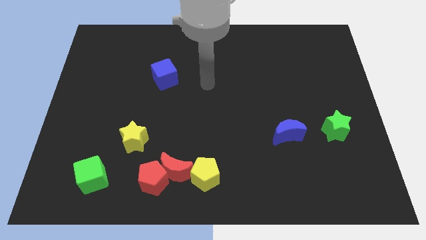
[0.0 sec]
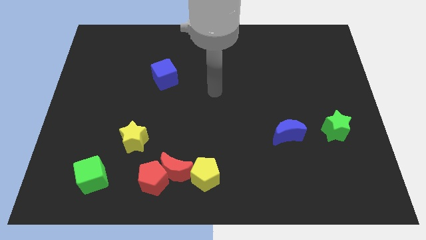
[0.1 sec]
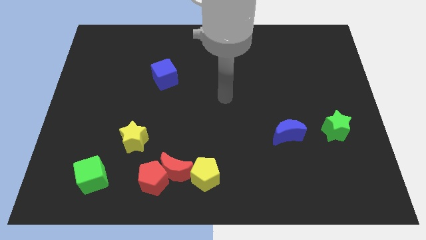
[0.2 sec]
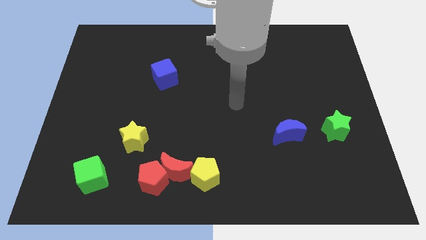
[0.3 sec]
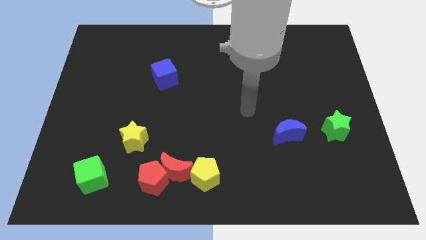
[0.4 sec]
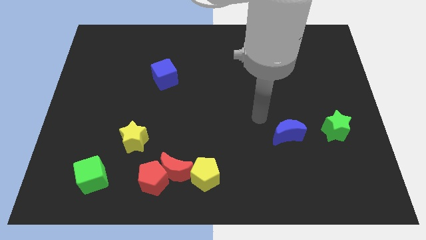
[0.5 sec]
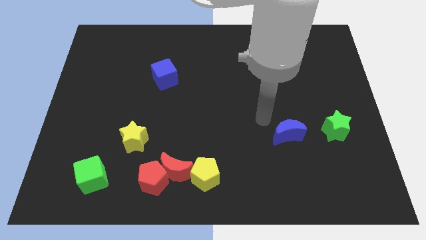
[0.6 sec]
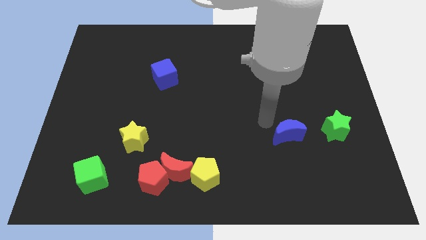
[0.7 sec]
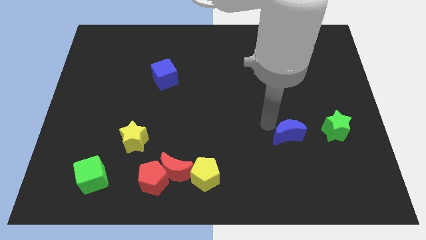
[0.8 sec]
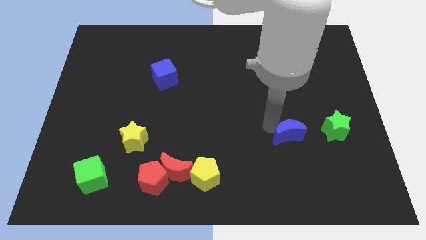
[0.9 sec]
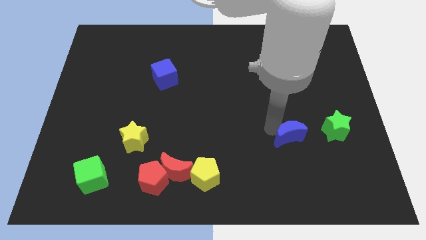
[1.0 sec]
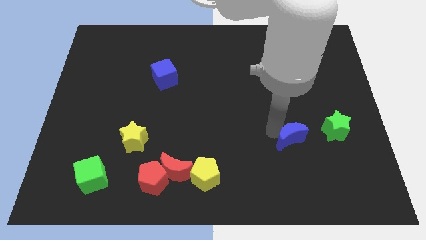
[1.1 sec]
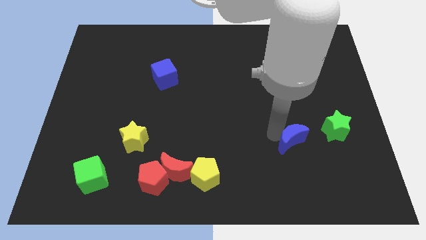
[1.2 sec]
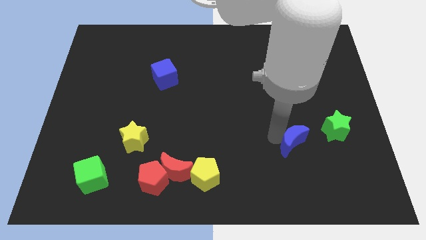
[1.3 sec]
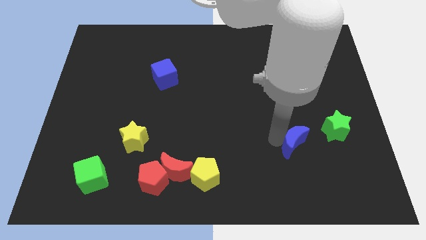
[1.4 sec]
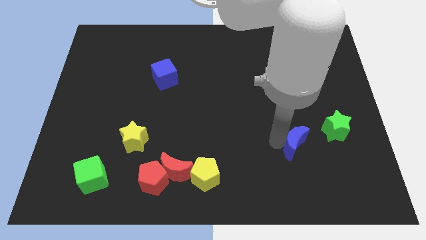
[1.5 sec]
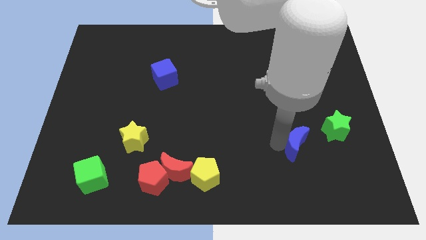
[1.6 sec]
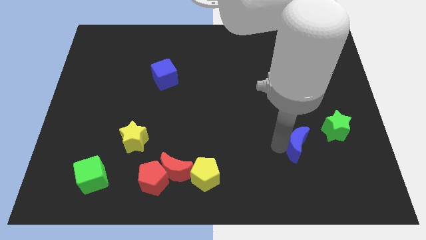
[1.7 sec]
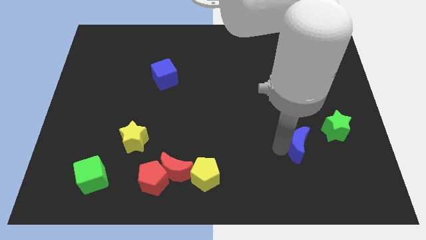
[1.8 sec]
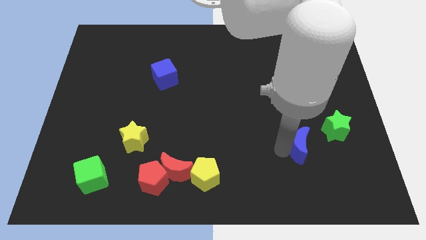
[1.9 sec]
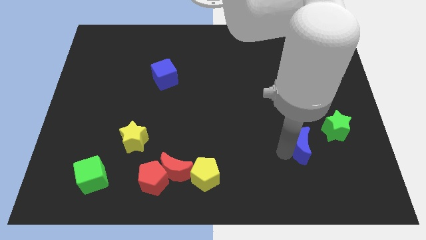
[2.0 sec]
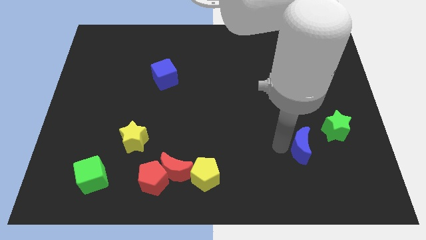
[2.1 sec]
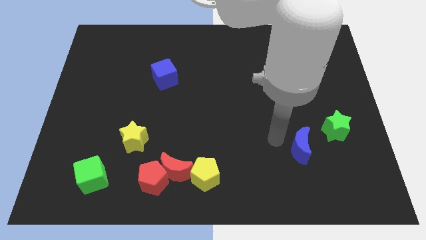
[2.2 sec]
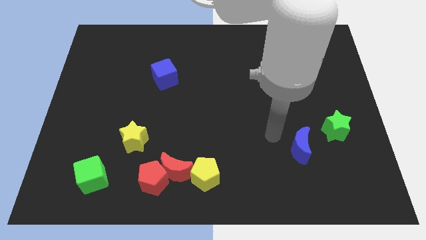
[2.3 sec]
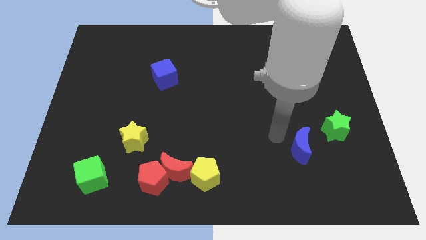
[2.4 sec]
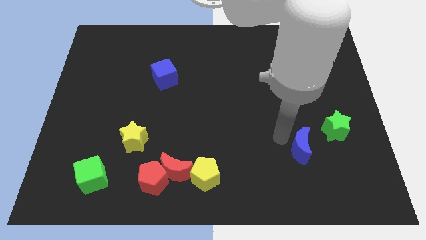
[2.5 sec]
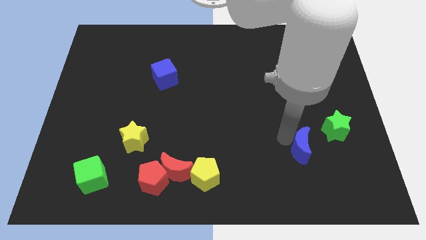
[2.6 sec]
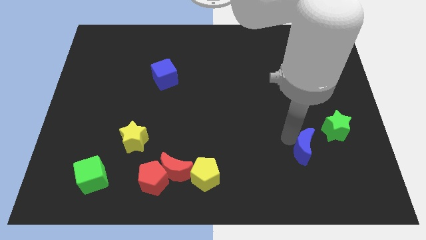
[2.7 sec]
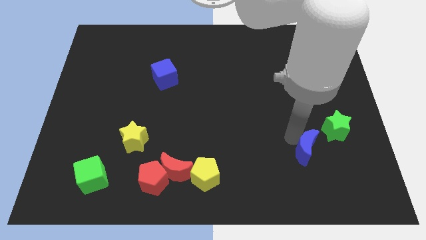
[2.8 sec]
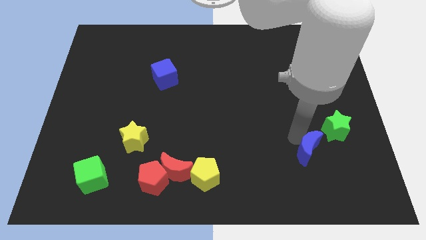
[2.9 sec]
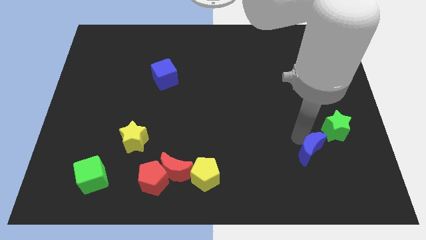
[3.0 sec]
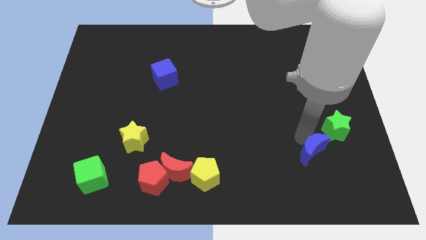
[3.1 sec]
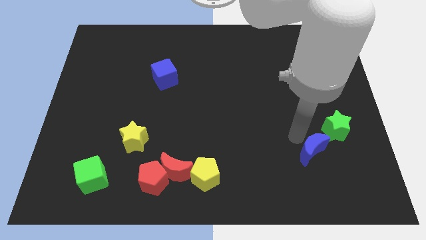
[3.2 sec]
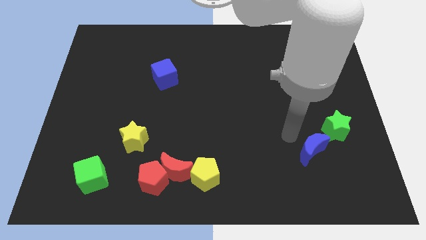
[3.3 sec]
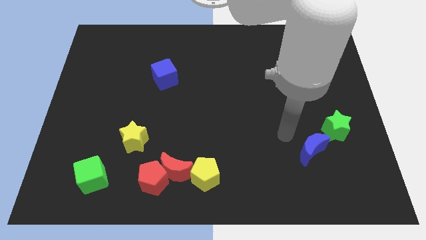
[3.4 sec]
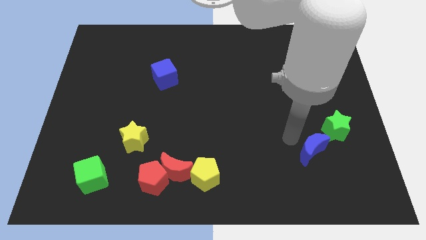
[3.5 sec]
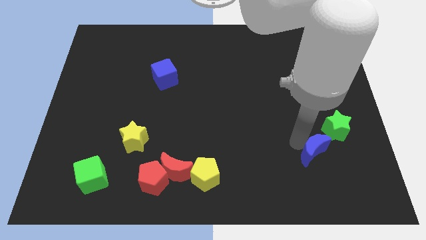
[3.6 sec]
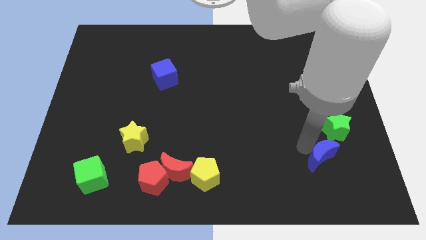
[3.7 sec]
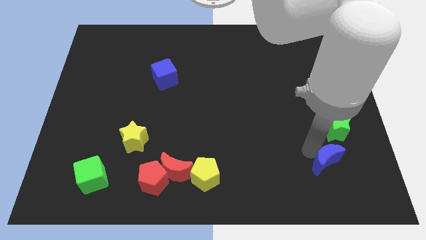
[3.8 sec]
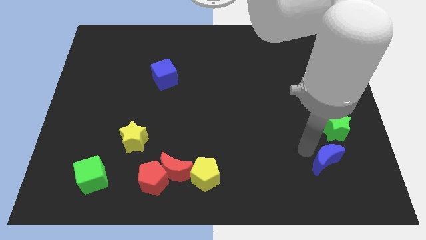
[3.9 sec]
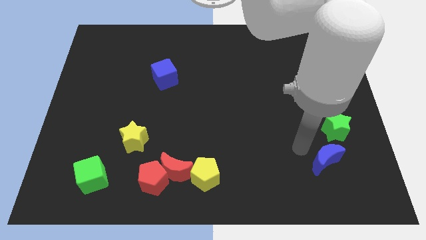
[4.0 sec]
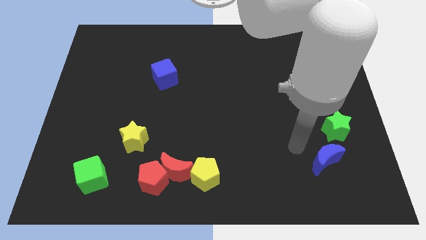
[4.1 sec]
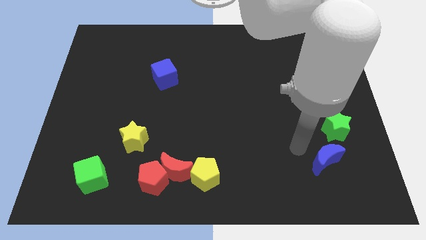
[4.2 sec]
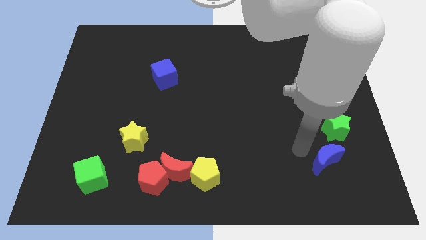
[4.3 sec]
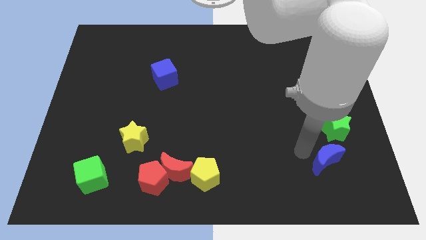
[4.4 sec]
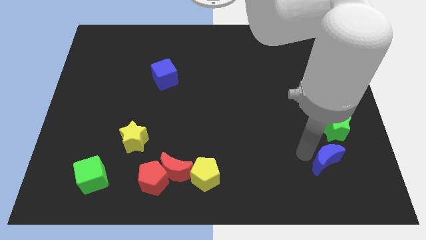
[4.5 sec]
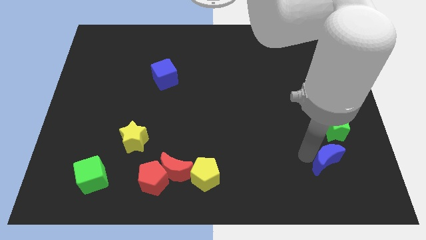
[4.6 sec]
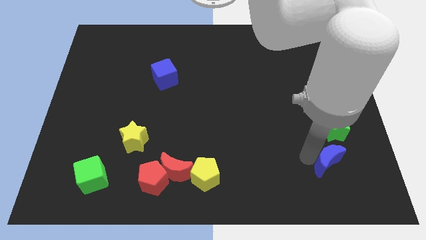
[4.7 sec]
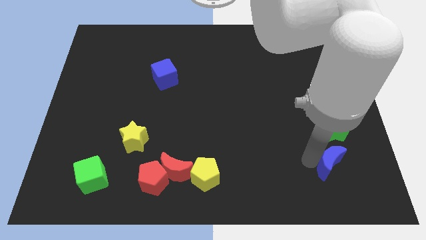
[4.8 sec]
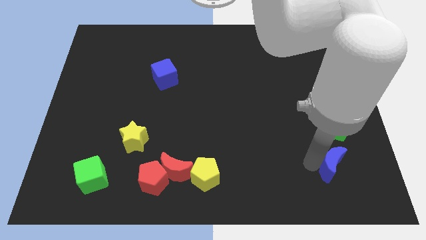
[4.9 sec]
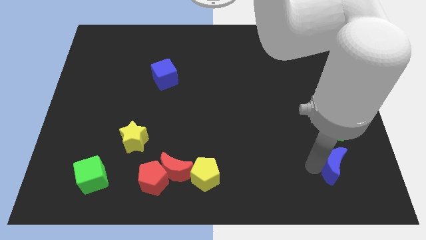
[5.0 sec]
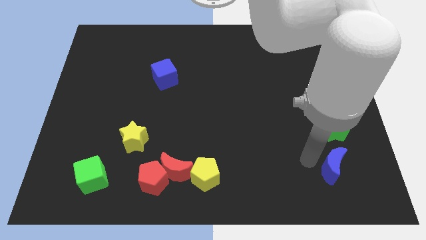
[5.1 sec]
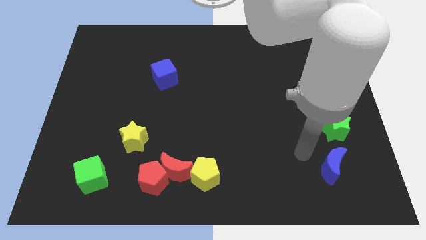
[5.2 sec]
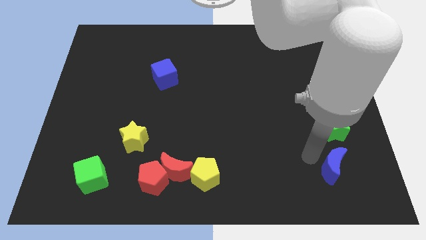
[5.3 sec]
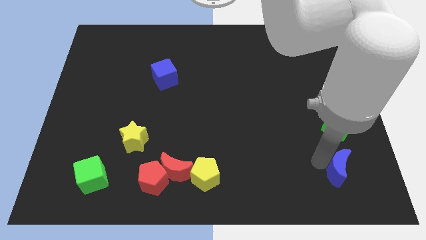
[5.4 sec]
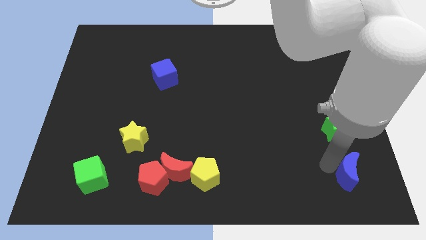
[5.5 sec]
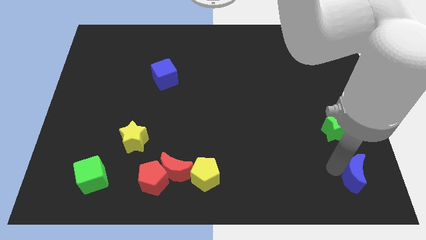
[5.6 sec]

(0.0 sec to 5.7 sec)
push the blue moon to the bottom right of the board
